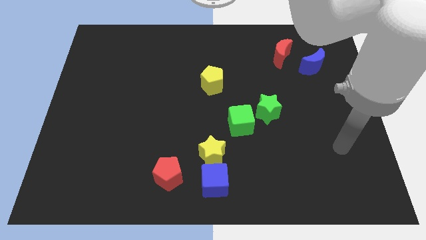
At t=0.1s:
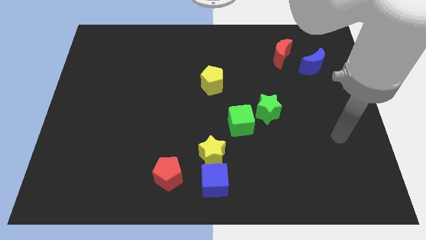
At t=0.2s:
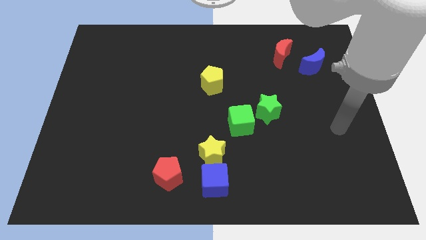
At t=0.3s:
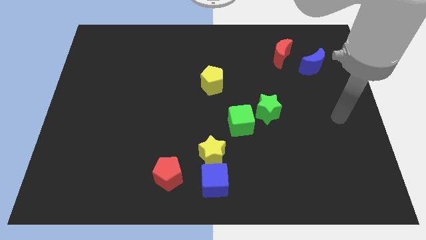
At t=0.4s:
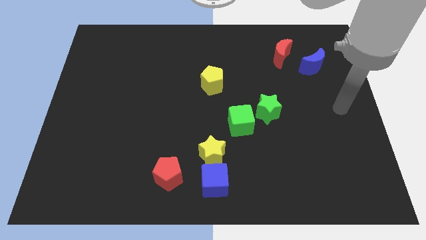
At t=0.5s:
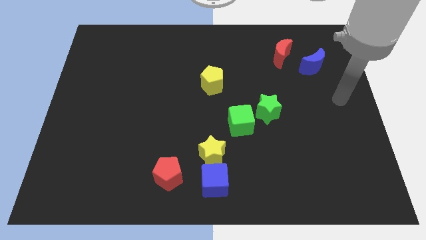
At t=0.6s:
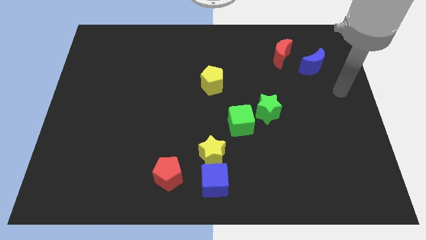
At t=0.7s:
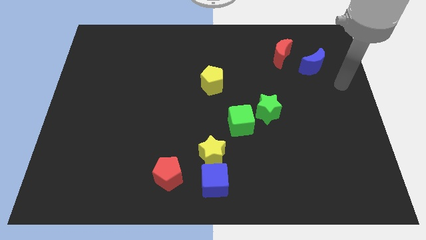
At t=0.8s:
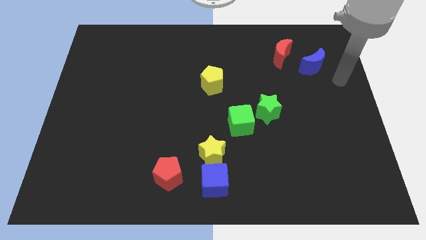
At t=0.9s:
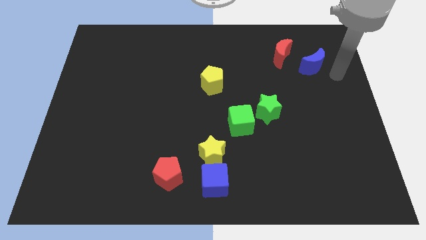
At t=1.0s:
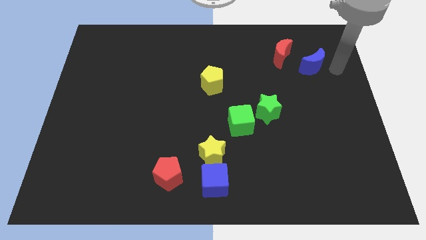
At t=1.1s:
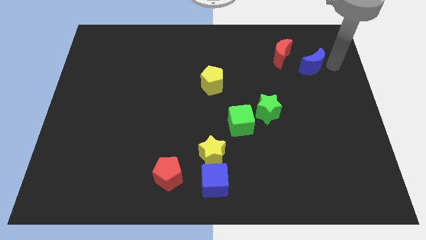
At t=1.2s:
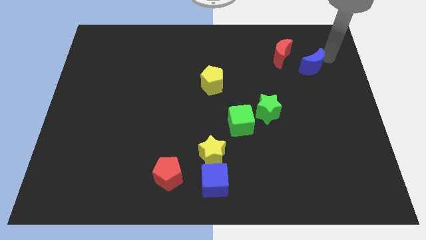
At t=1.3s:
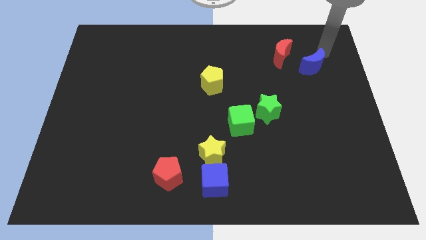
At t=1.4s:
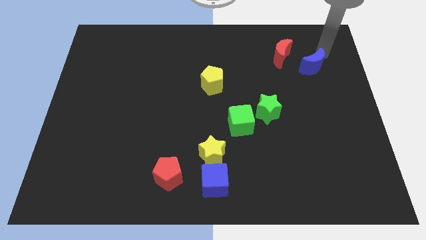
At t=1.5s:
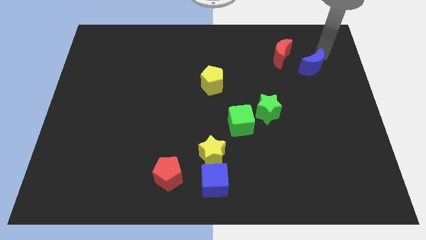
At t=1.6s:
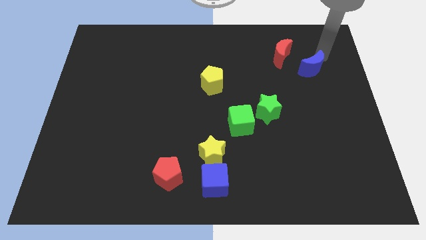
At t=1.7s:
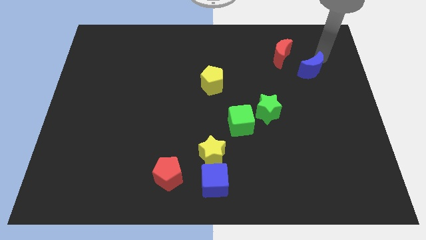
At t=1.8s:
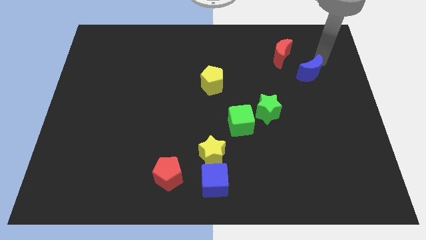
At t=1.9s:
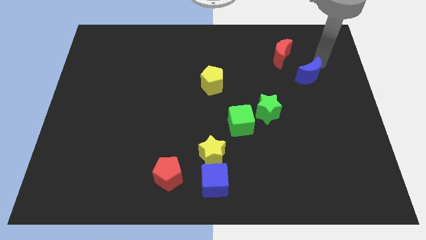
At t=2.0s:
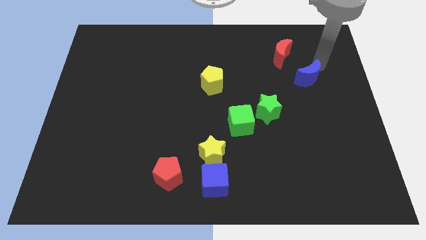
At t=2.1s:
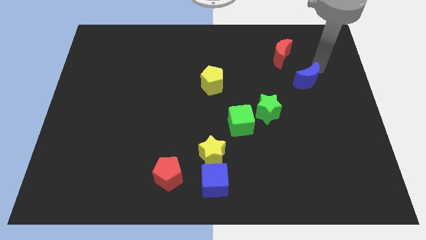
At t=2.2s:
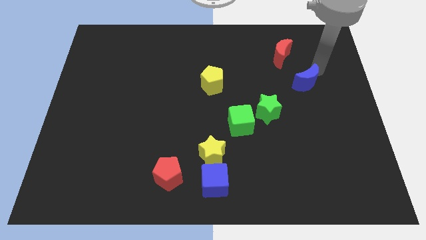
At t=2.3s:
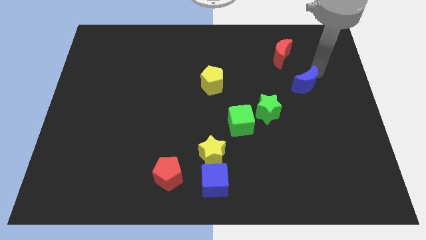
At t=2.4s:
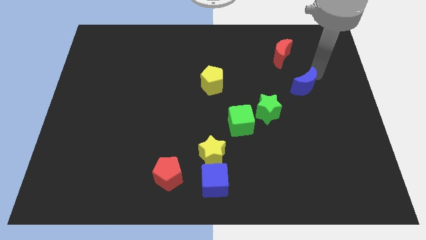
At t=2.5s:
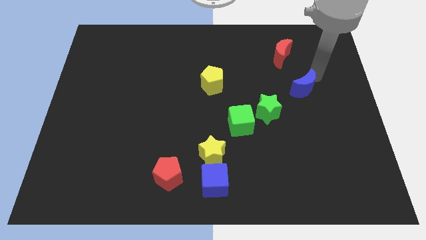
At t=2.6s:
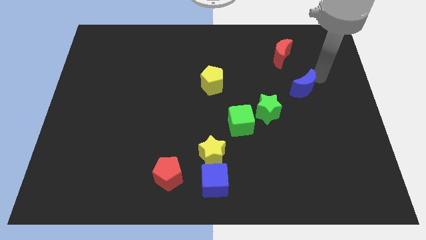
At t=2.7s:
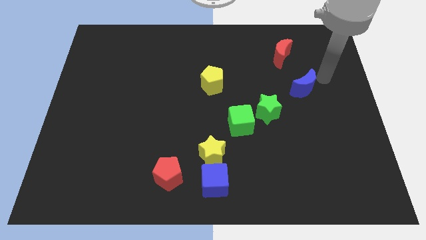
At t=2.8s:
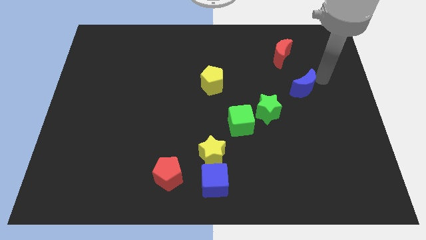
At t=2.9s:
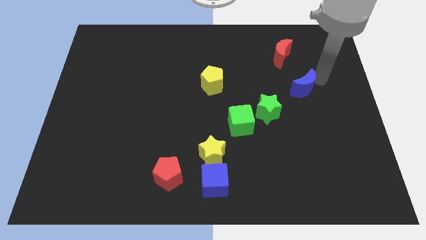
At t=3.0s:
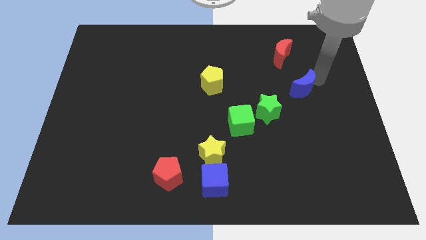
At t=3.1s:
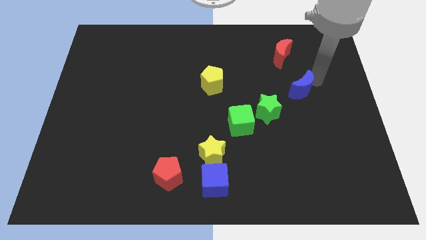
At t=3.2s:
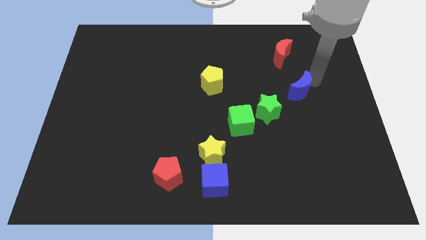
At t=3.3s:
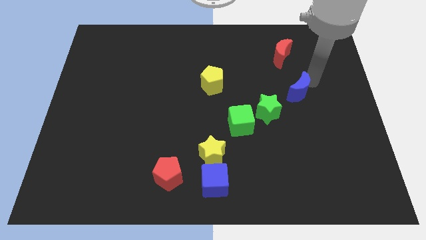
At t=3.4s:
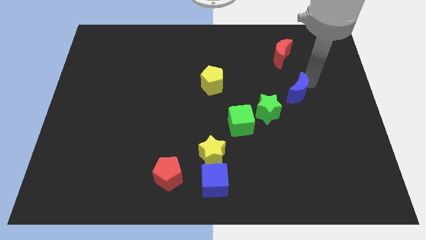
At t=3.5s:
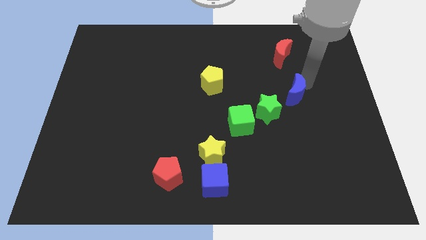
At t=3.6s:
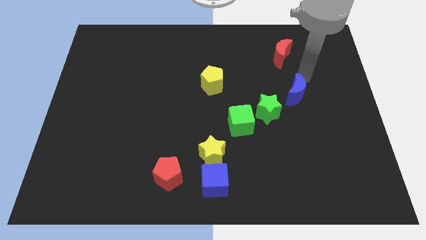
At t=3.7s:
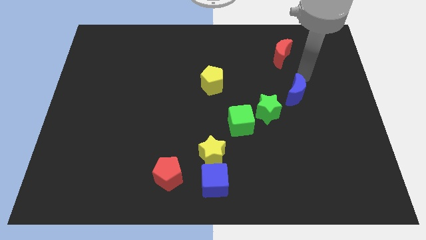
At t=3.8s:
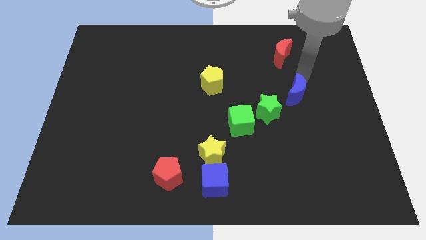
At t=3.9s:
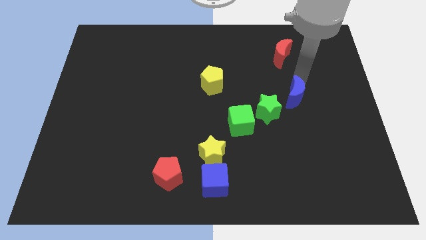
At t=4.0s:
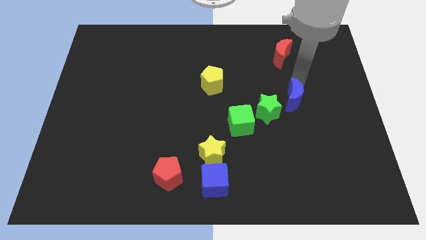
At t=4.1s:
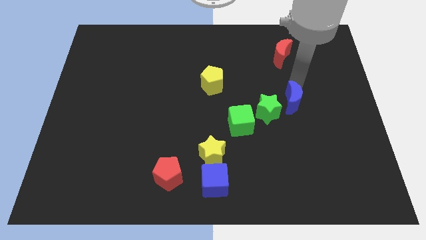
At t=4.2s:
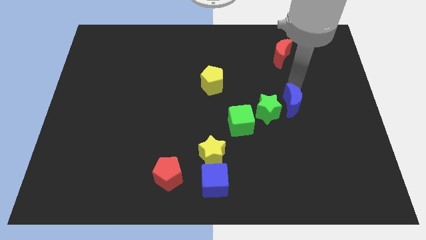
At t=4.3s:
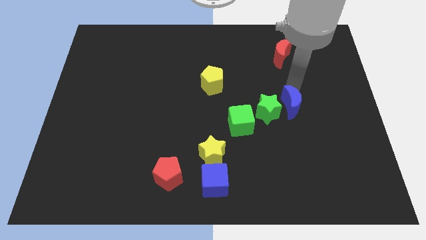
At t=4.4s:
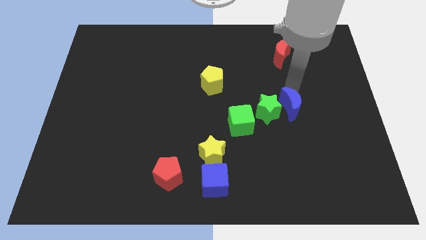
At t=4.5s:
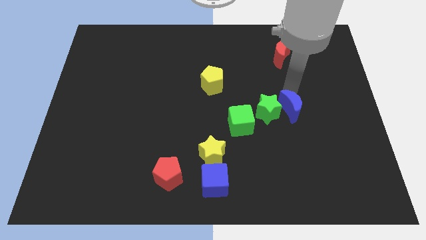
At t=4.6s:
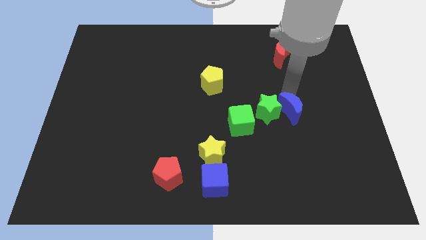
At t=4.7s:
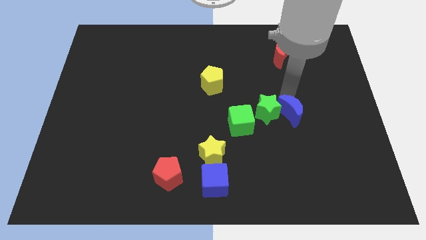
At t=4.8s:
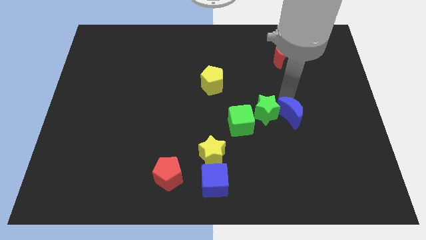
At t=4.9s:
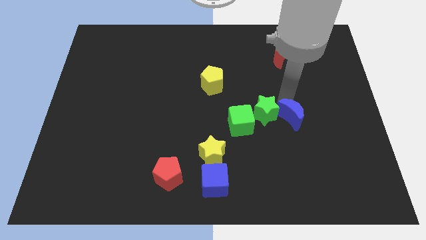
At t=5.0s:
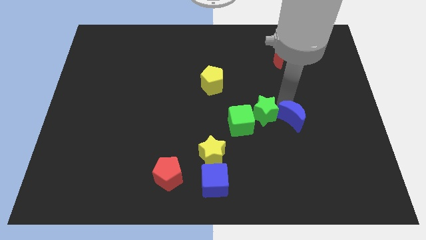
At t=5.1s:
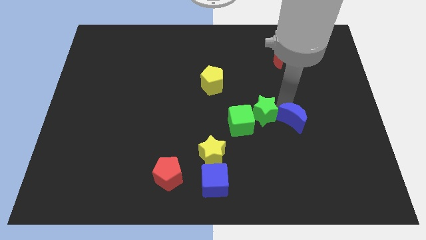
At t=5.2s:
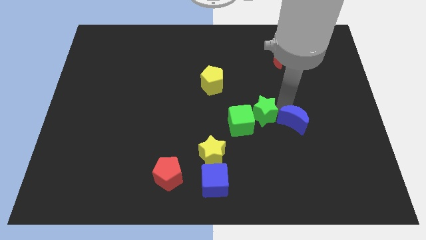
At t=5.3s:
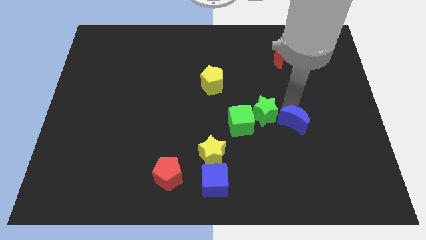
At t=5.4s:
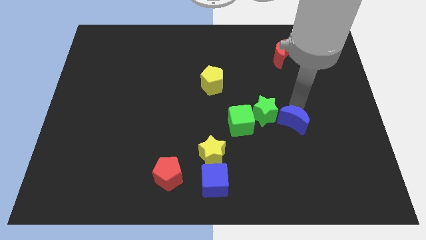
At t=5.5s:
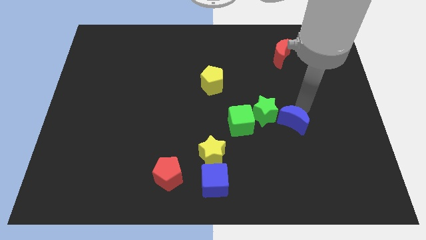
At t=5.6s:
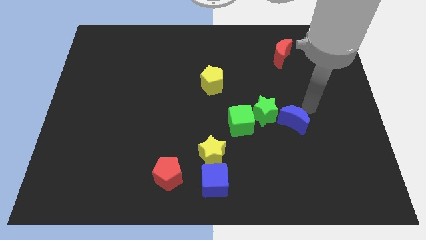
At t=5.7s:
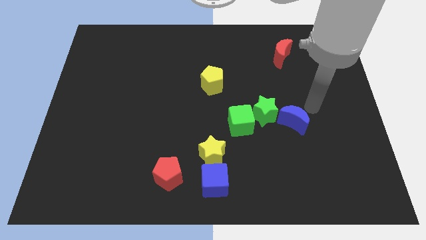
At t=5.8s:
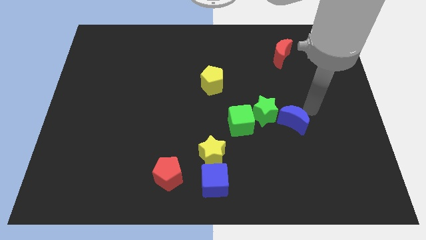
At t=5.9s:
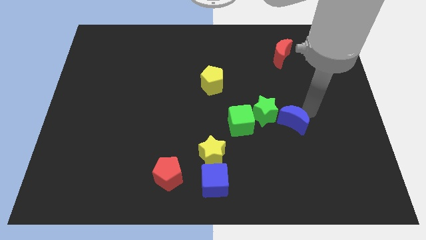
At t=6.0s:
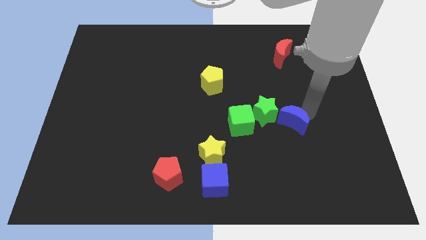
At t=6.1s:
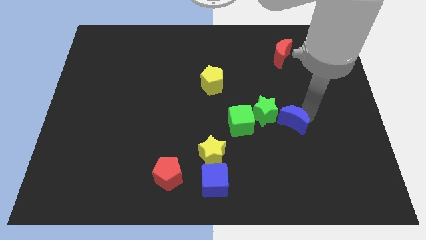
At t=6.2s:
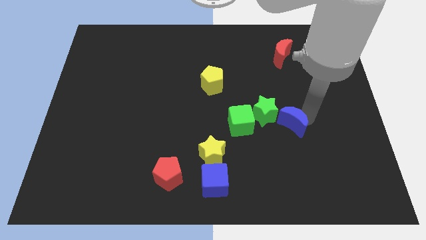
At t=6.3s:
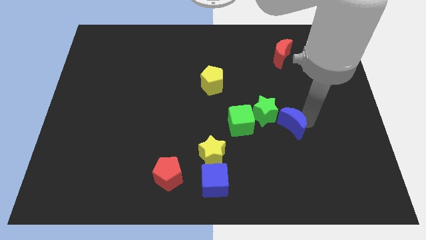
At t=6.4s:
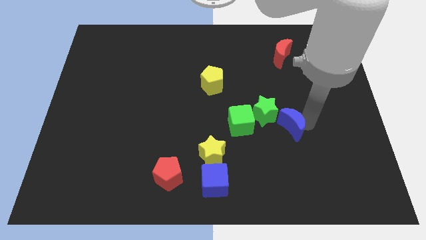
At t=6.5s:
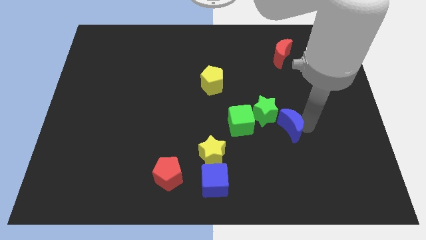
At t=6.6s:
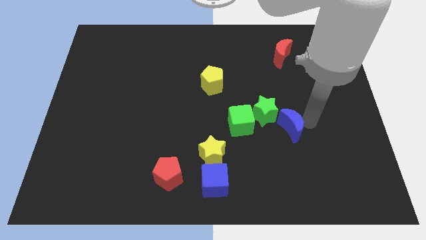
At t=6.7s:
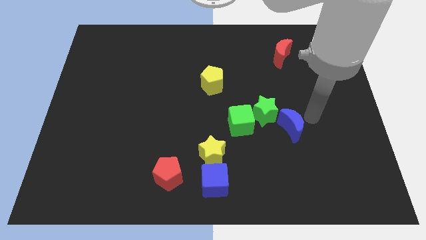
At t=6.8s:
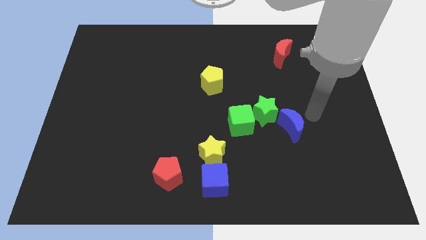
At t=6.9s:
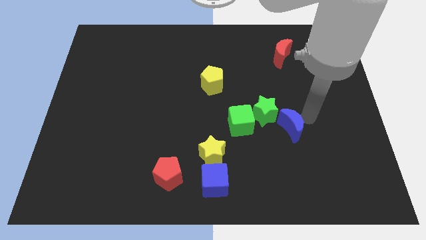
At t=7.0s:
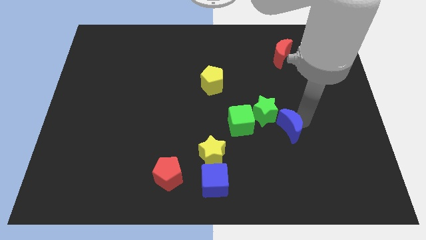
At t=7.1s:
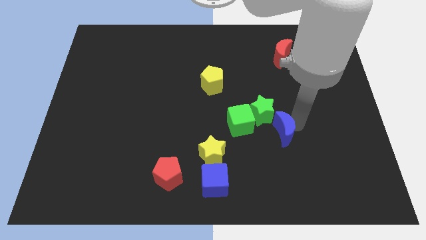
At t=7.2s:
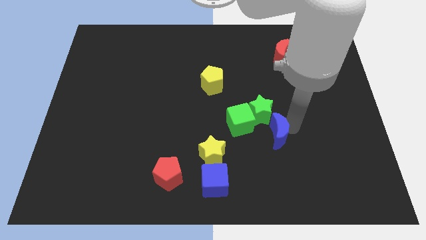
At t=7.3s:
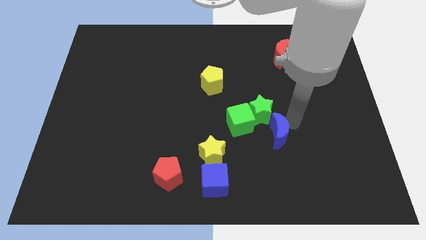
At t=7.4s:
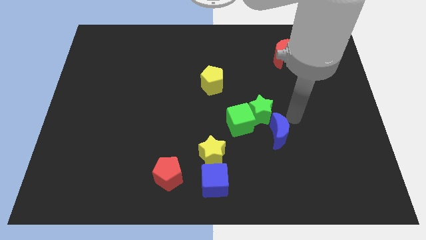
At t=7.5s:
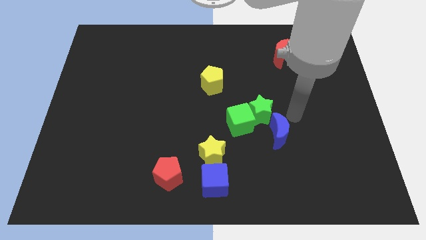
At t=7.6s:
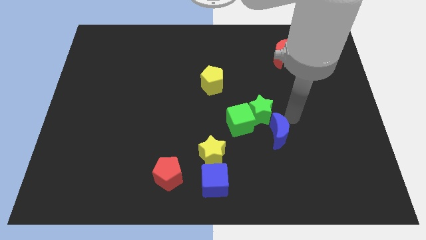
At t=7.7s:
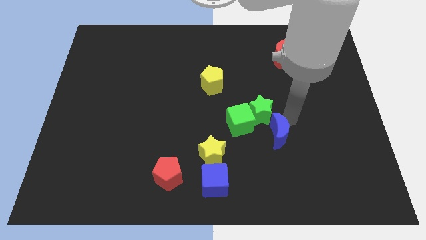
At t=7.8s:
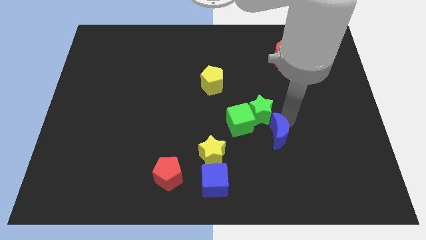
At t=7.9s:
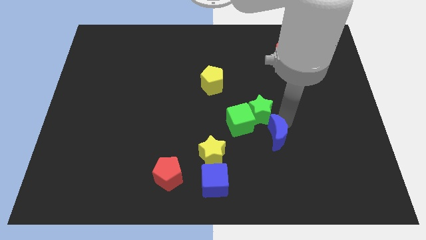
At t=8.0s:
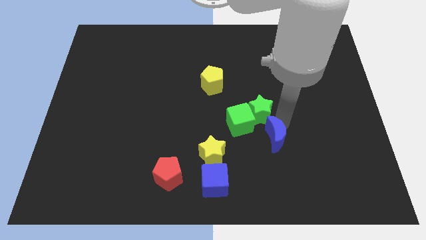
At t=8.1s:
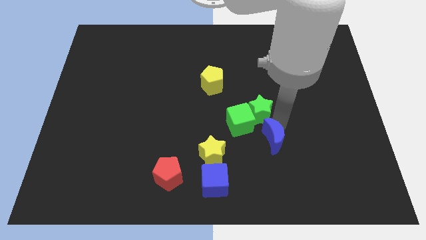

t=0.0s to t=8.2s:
move the blue moon just right of the yellow star

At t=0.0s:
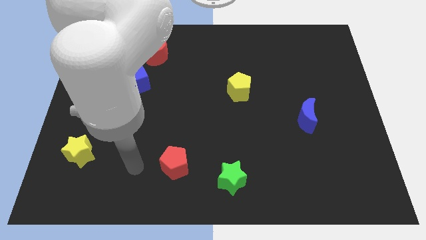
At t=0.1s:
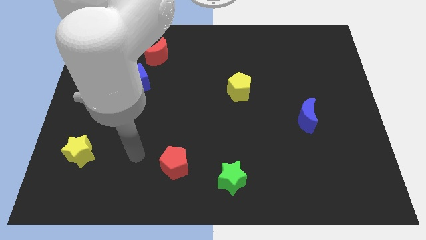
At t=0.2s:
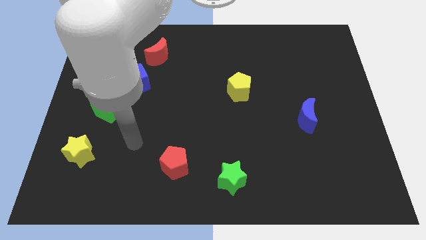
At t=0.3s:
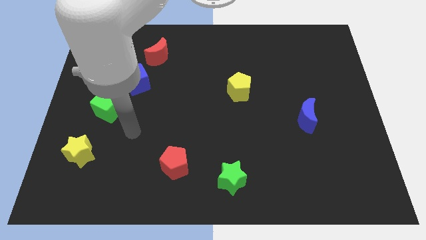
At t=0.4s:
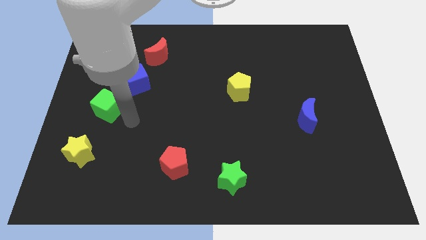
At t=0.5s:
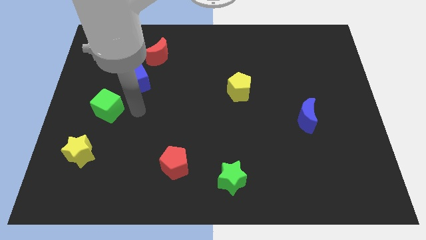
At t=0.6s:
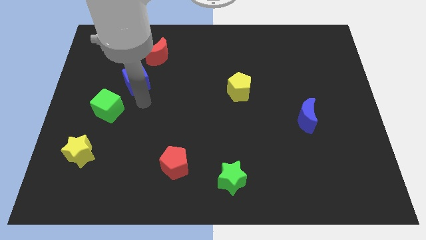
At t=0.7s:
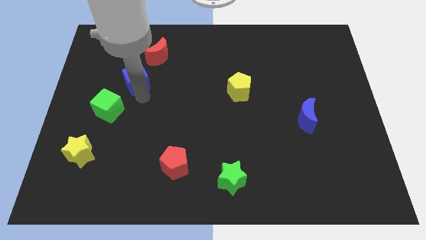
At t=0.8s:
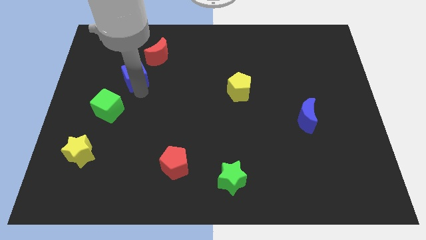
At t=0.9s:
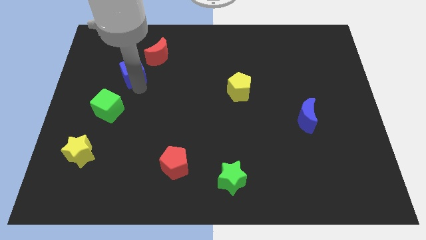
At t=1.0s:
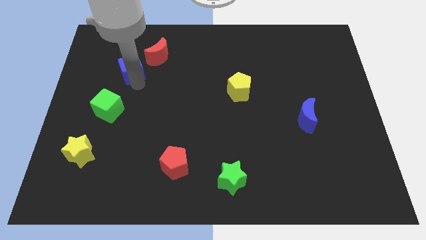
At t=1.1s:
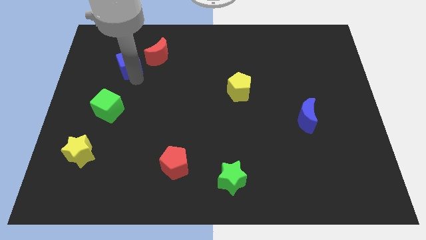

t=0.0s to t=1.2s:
slide the blue cube to the left side of the red moon
